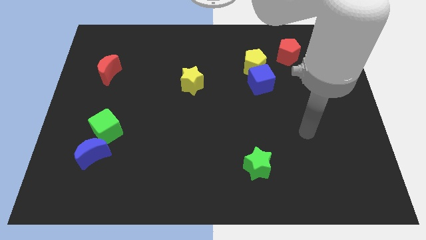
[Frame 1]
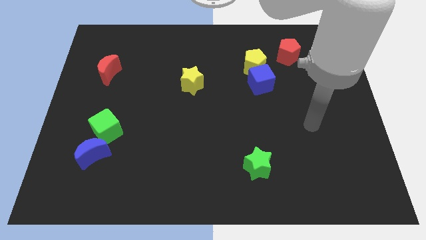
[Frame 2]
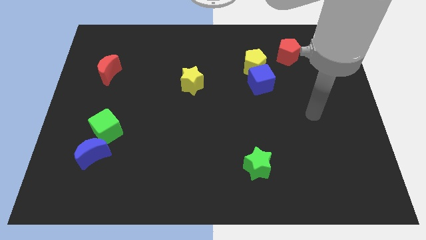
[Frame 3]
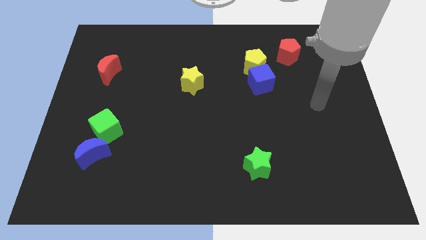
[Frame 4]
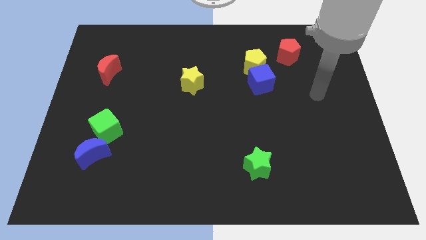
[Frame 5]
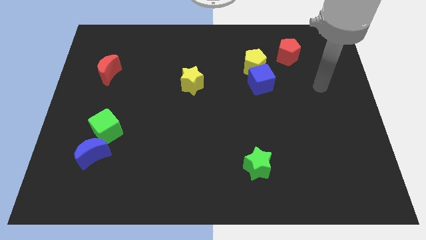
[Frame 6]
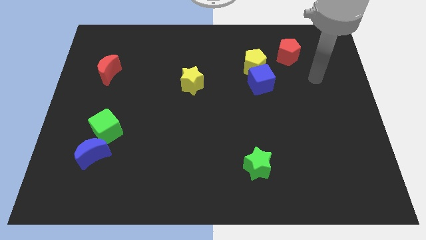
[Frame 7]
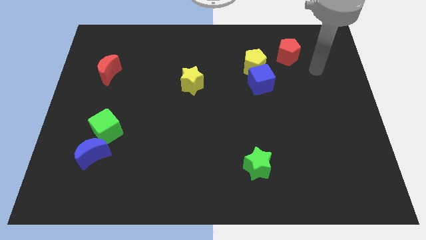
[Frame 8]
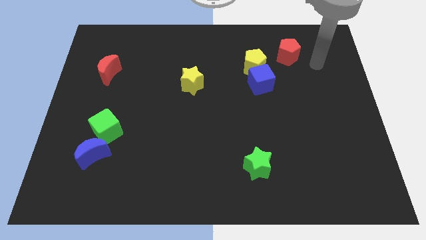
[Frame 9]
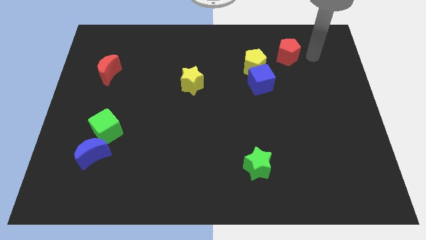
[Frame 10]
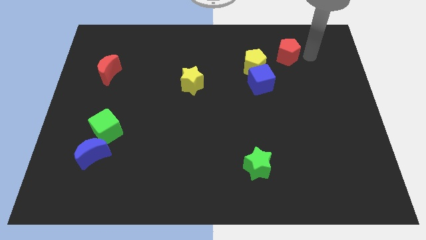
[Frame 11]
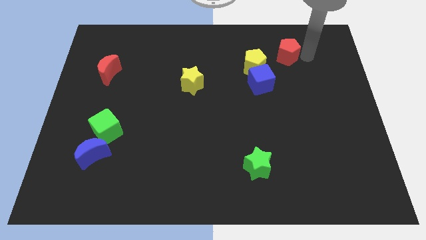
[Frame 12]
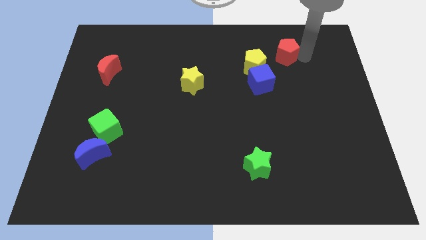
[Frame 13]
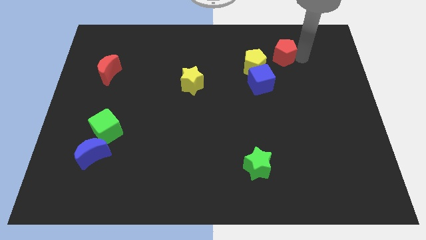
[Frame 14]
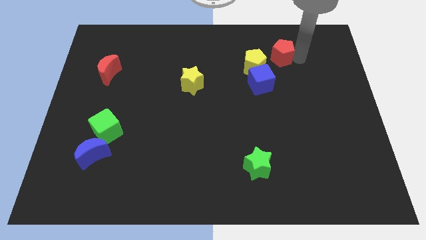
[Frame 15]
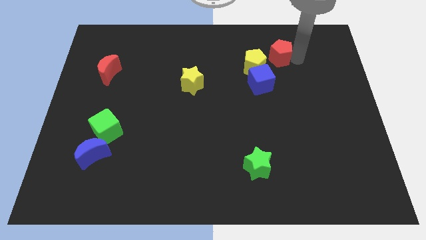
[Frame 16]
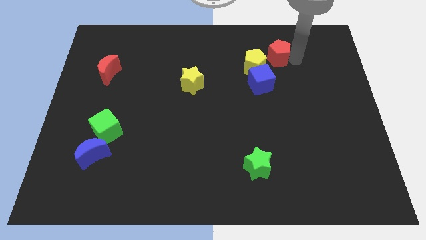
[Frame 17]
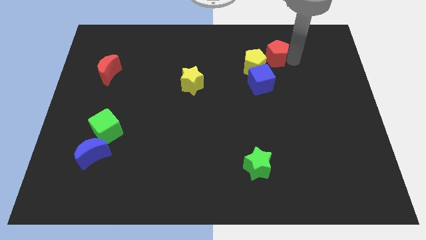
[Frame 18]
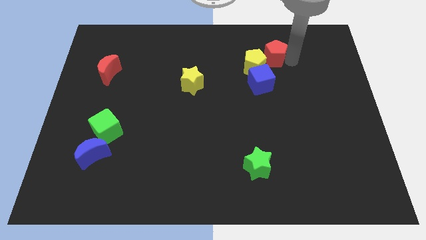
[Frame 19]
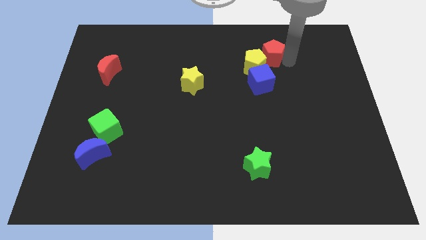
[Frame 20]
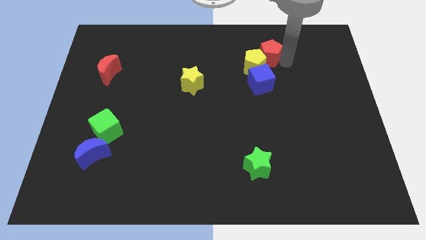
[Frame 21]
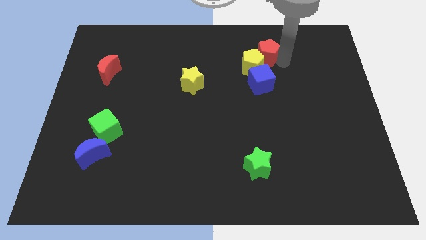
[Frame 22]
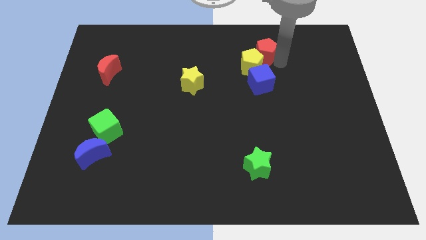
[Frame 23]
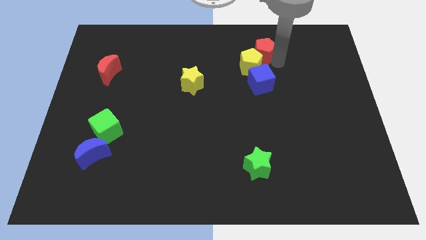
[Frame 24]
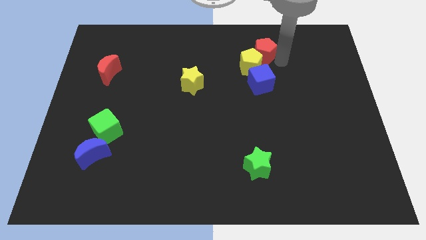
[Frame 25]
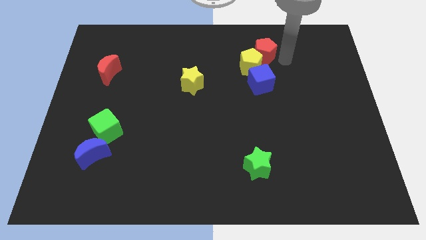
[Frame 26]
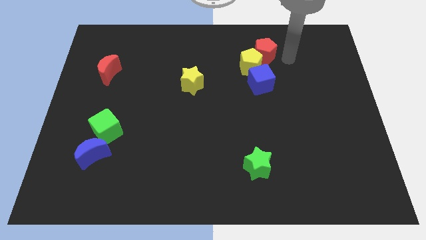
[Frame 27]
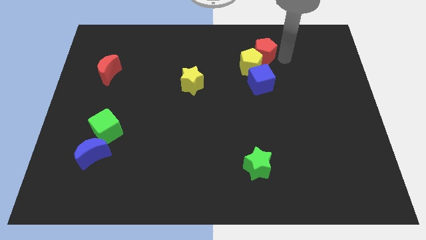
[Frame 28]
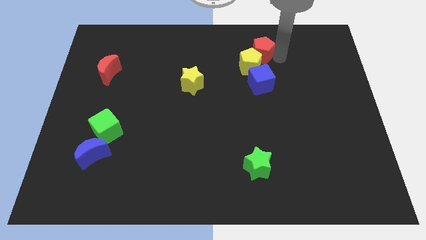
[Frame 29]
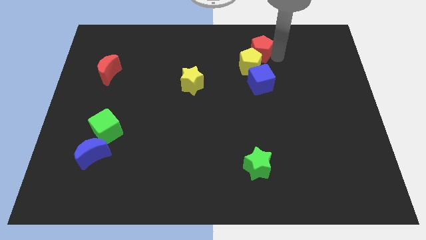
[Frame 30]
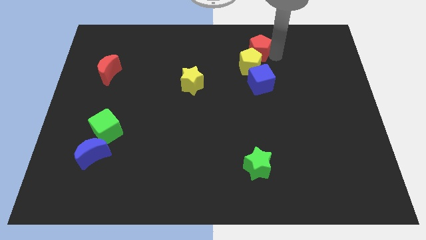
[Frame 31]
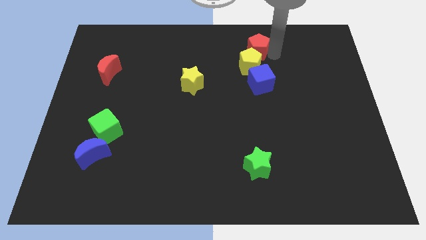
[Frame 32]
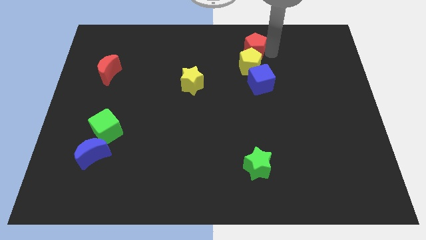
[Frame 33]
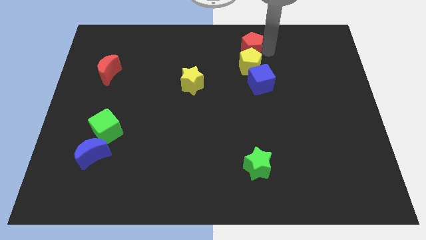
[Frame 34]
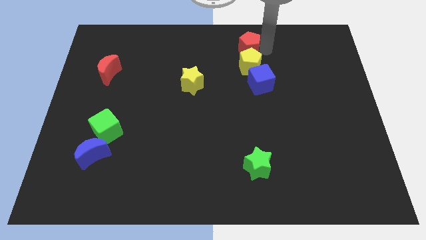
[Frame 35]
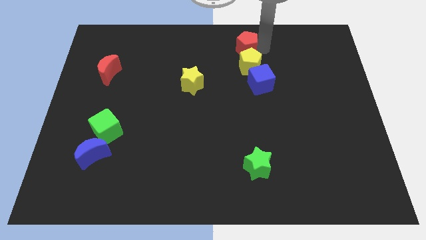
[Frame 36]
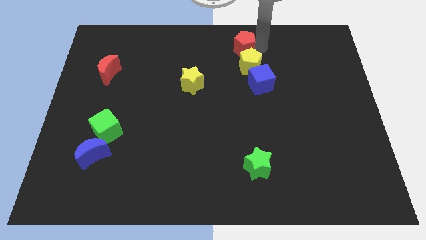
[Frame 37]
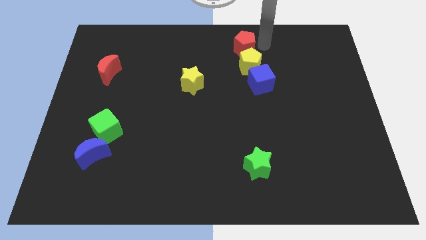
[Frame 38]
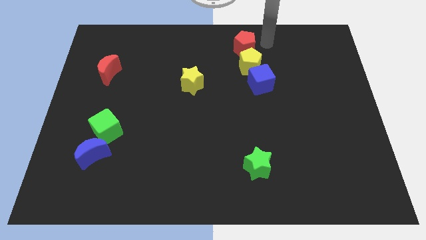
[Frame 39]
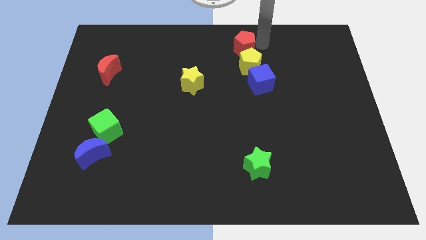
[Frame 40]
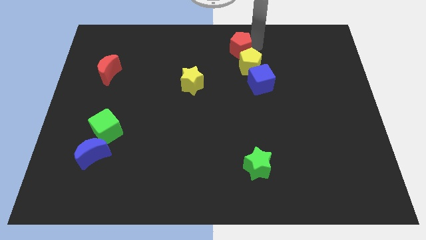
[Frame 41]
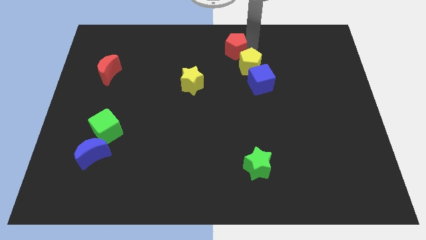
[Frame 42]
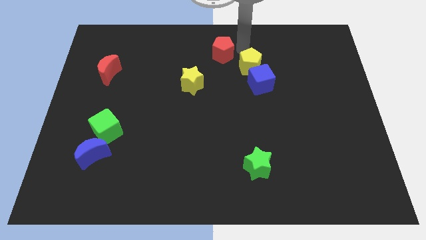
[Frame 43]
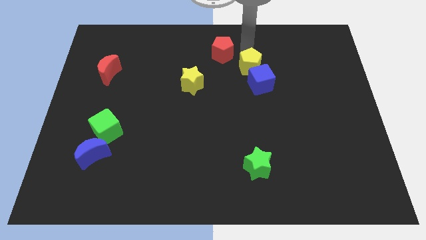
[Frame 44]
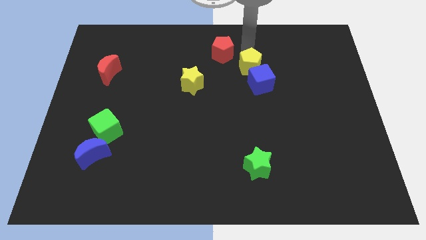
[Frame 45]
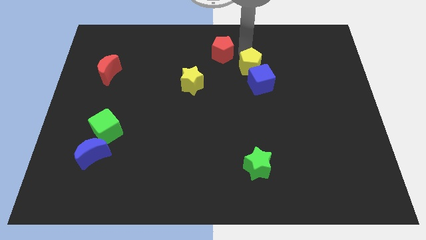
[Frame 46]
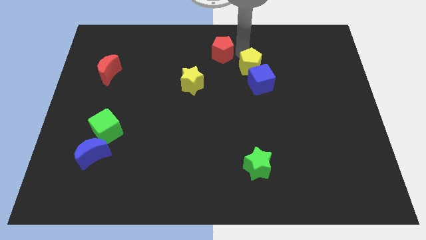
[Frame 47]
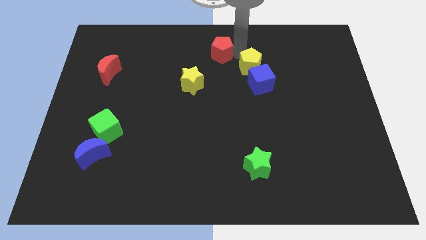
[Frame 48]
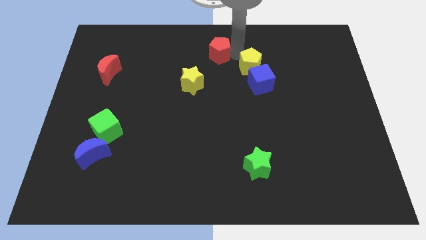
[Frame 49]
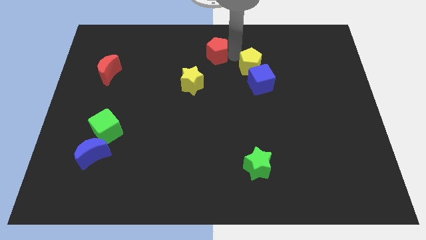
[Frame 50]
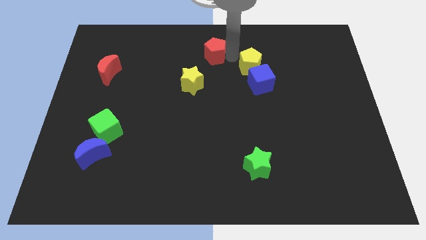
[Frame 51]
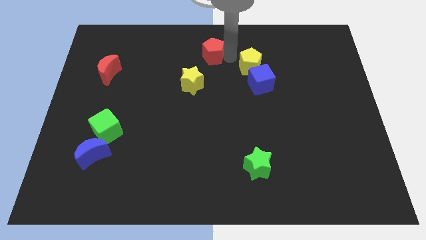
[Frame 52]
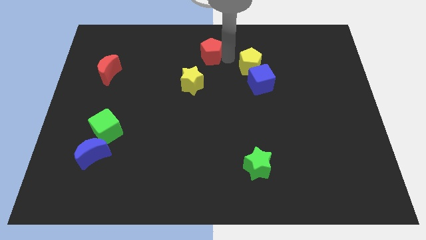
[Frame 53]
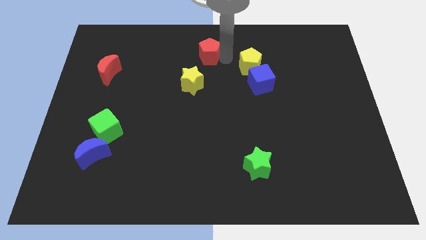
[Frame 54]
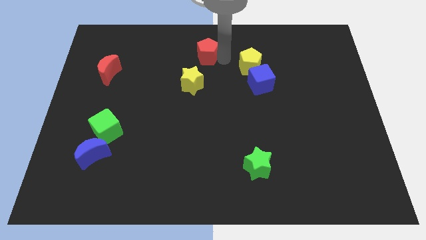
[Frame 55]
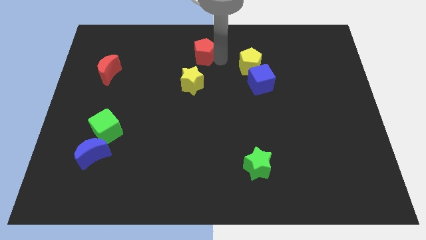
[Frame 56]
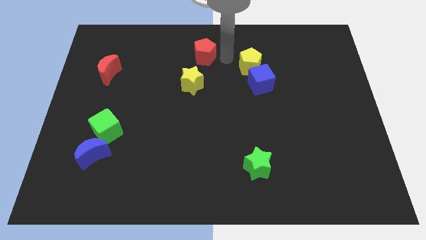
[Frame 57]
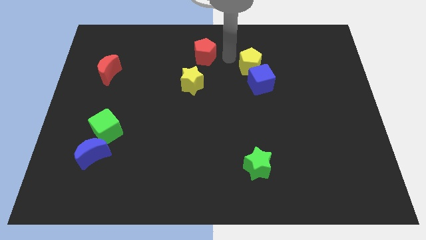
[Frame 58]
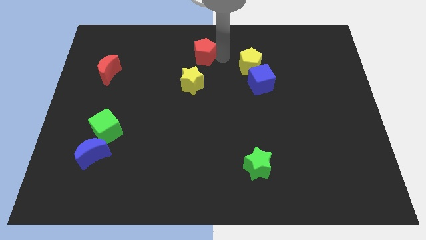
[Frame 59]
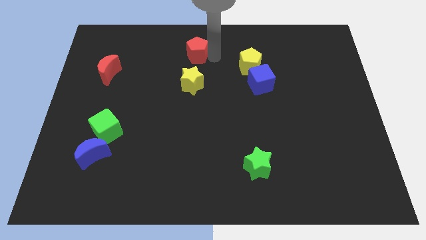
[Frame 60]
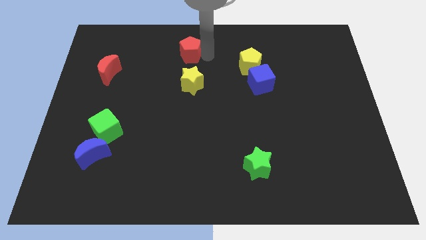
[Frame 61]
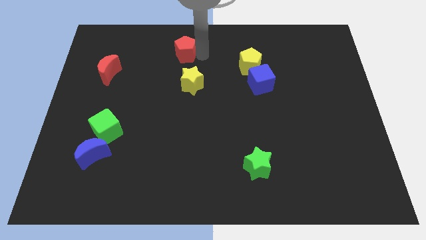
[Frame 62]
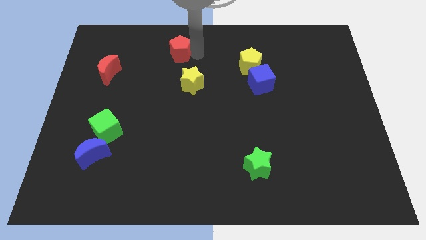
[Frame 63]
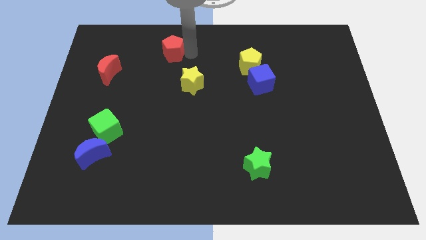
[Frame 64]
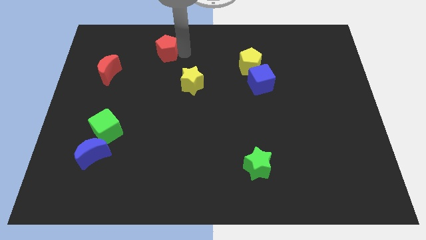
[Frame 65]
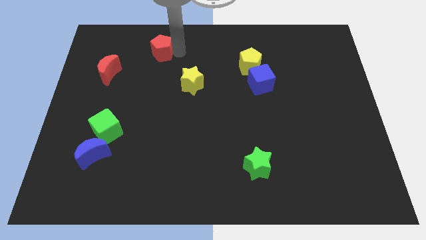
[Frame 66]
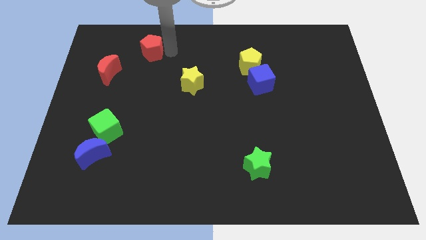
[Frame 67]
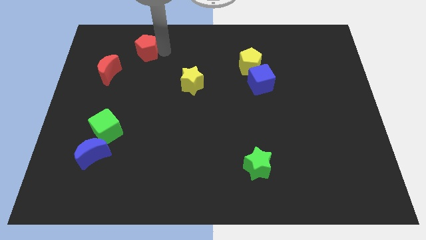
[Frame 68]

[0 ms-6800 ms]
push the red pentagon diagonally up and to the right of the red moon
